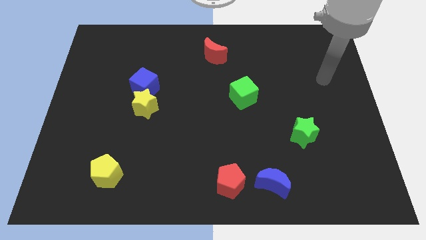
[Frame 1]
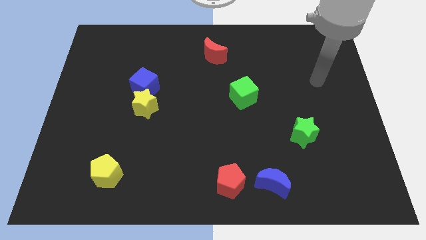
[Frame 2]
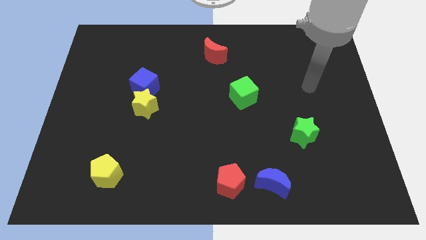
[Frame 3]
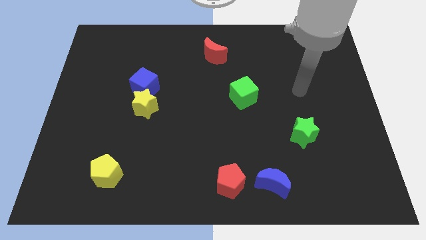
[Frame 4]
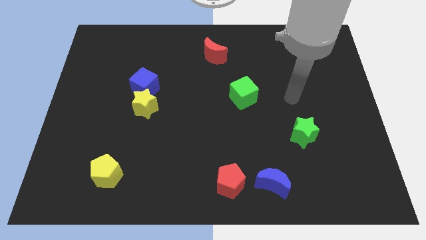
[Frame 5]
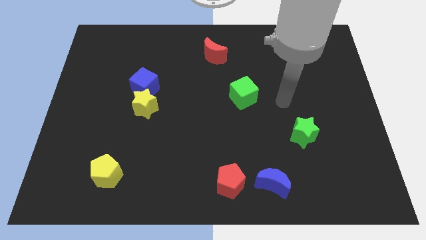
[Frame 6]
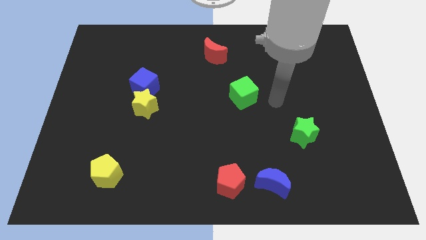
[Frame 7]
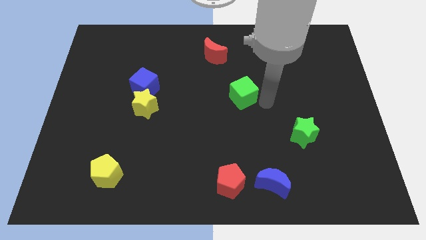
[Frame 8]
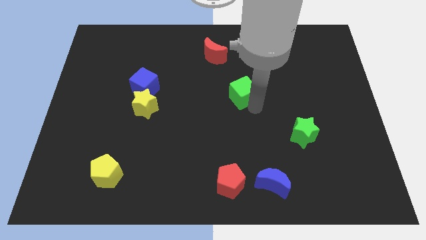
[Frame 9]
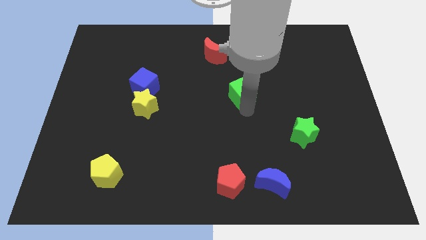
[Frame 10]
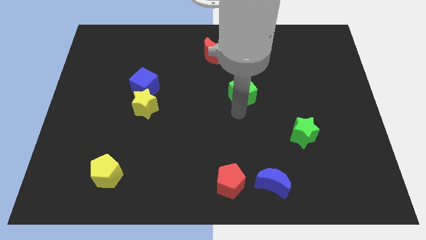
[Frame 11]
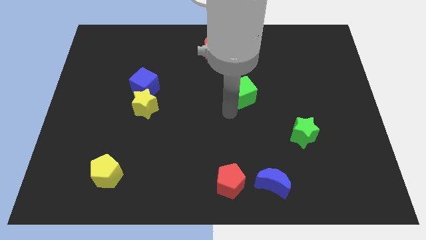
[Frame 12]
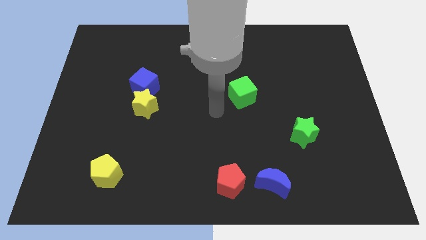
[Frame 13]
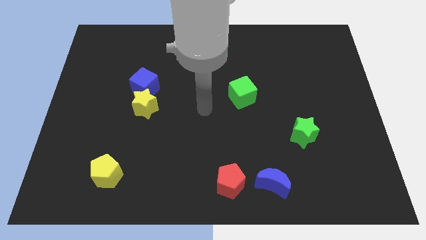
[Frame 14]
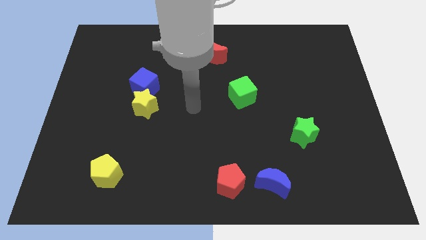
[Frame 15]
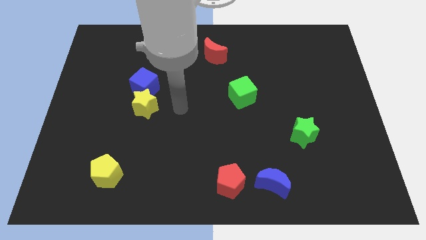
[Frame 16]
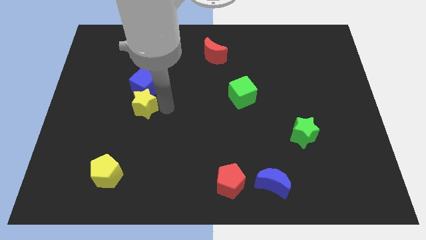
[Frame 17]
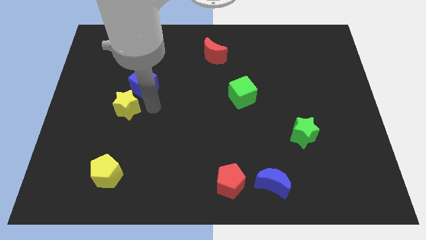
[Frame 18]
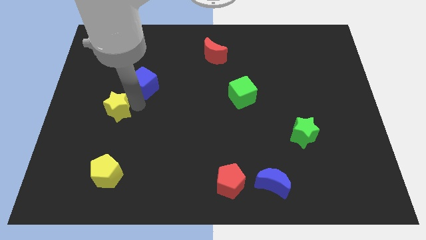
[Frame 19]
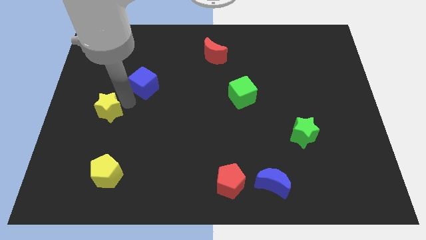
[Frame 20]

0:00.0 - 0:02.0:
move the blue cube away from the yellow star

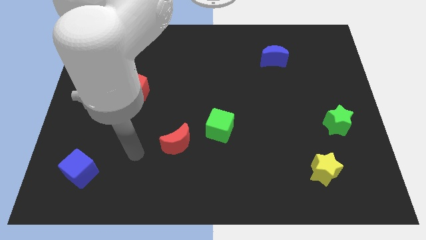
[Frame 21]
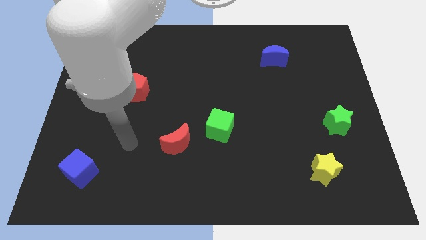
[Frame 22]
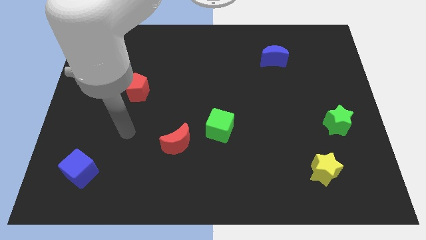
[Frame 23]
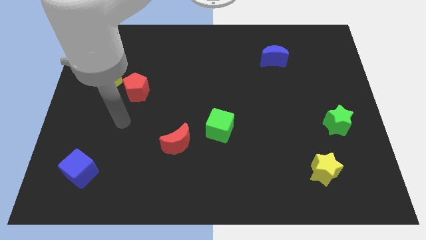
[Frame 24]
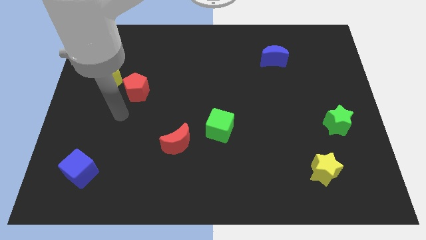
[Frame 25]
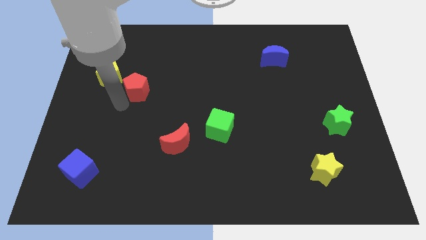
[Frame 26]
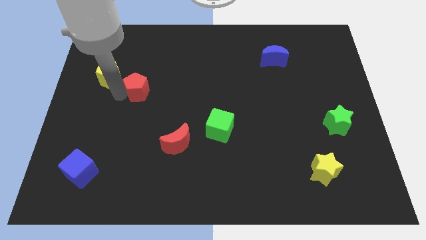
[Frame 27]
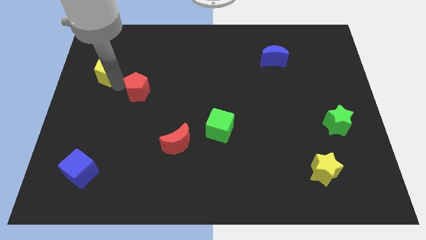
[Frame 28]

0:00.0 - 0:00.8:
separate the red pentagon from the yellow pentagon

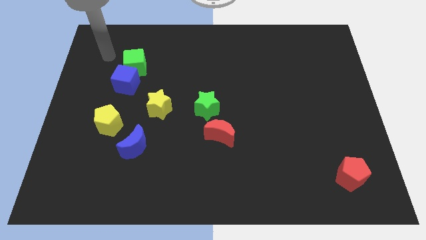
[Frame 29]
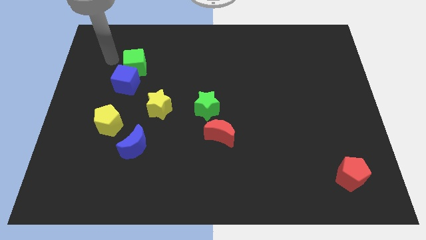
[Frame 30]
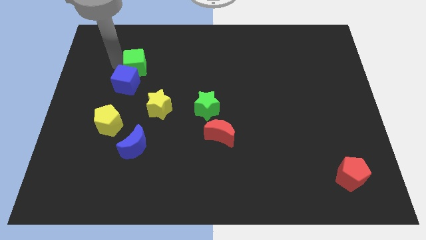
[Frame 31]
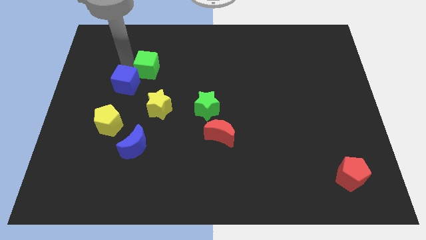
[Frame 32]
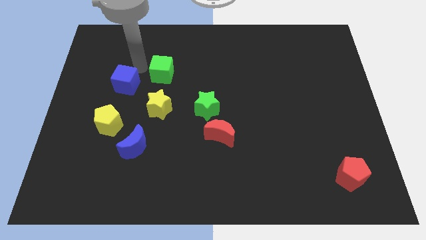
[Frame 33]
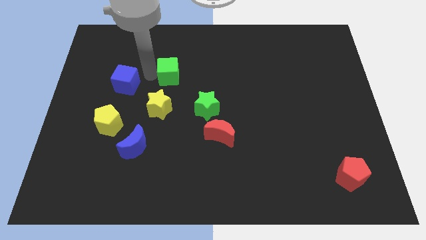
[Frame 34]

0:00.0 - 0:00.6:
pull the blue cube apart from the green cube

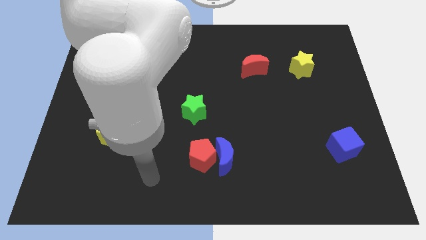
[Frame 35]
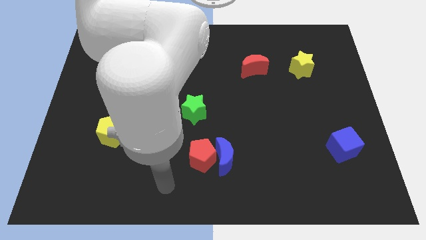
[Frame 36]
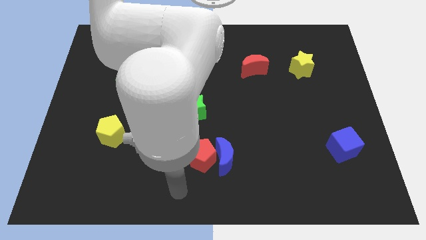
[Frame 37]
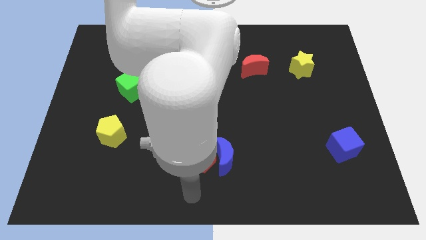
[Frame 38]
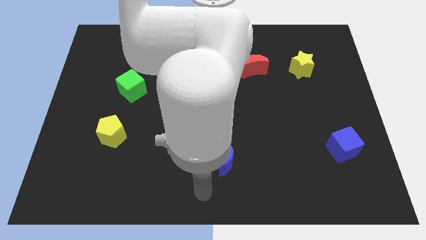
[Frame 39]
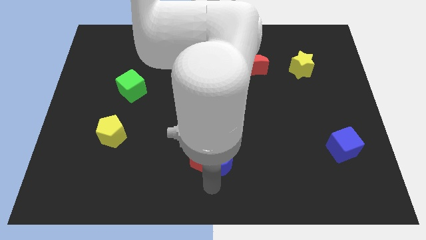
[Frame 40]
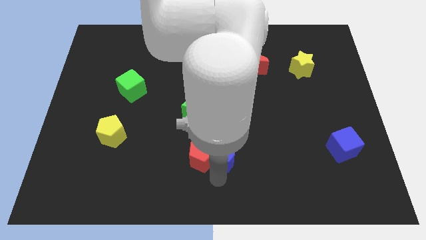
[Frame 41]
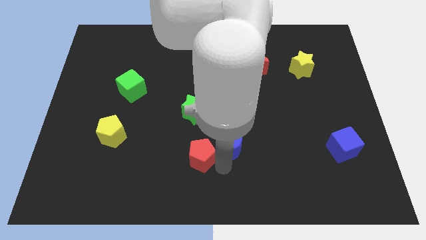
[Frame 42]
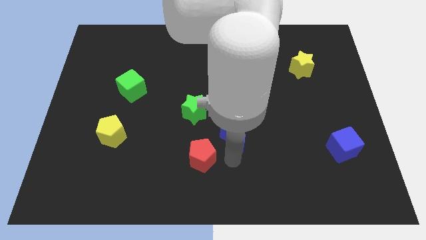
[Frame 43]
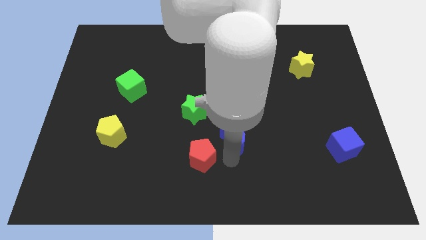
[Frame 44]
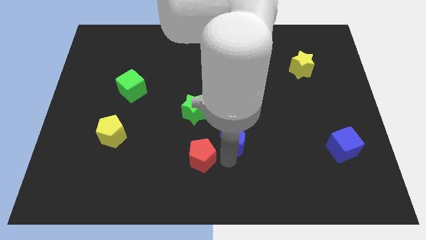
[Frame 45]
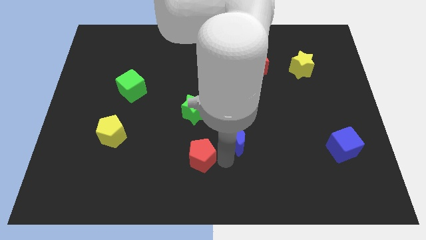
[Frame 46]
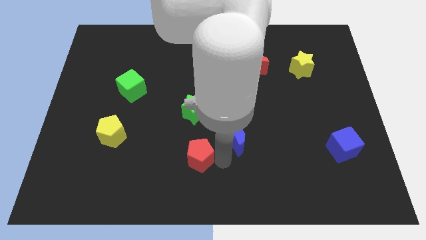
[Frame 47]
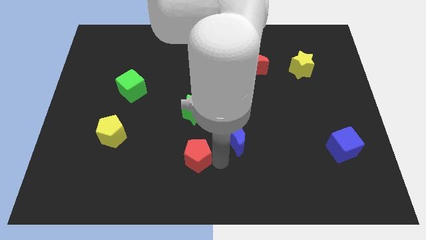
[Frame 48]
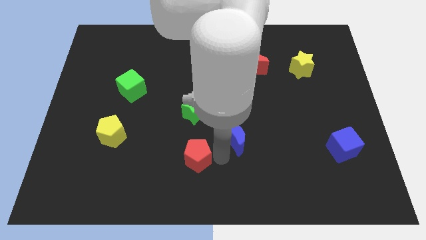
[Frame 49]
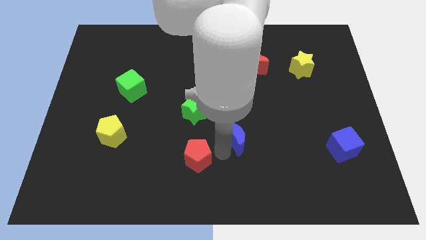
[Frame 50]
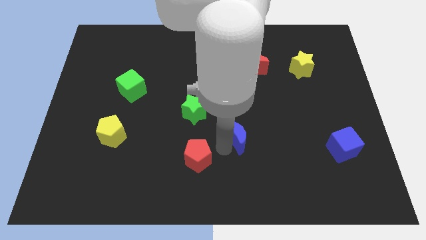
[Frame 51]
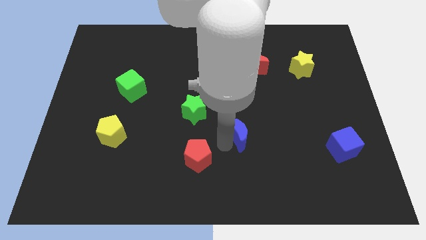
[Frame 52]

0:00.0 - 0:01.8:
pull the red pentagon apart from the blue moon

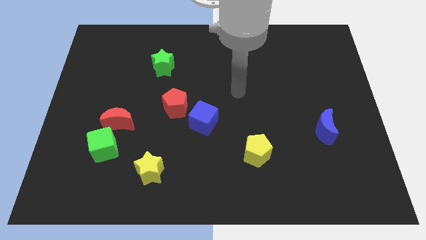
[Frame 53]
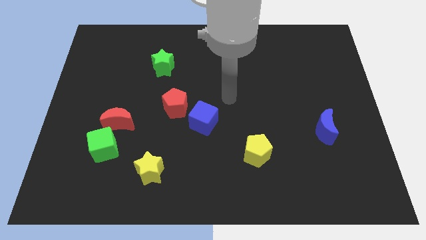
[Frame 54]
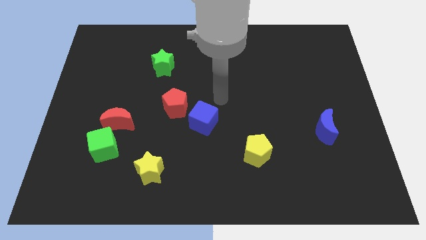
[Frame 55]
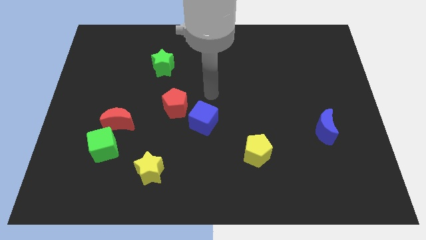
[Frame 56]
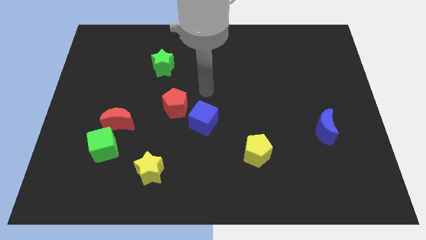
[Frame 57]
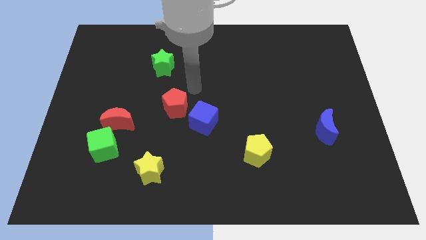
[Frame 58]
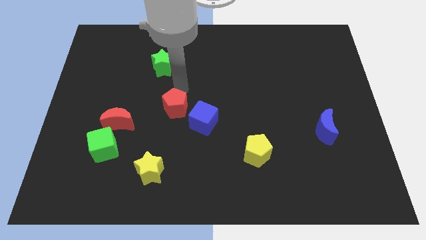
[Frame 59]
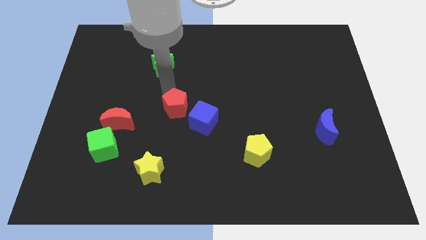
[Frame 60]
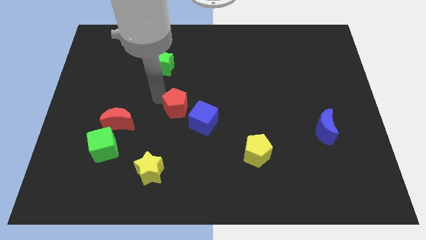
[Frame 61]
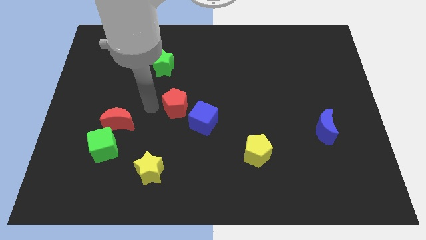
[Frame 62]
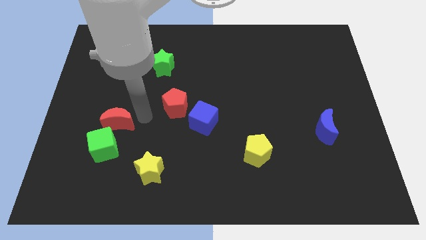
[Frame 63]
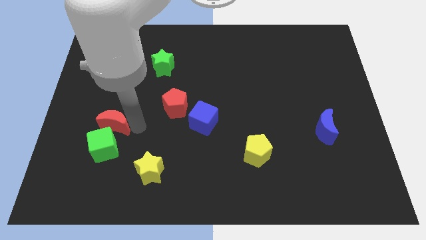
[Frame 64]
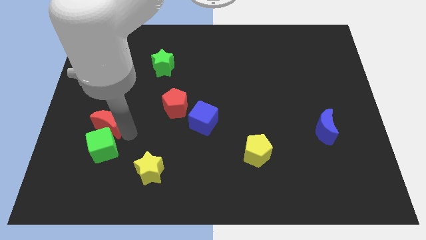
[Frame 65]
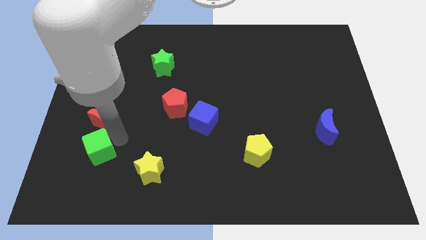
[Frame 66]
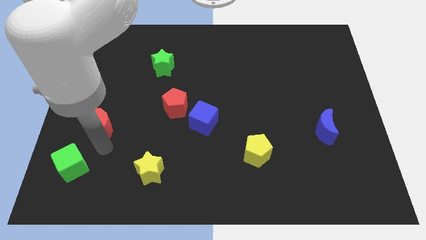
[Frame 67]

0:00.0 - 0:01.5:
move the red moon away from the green cube

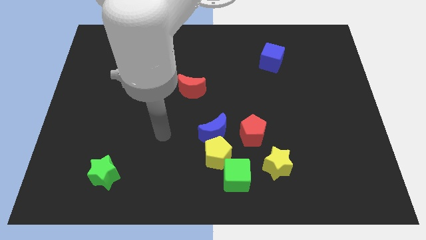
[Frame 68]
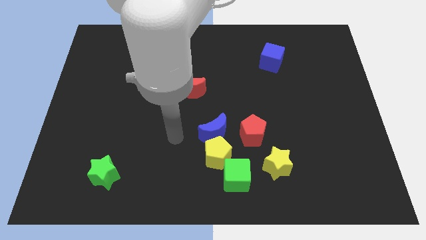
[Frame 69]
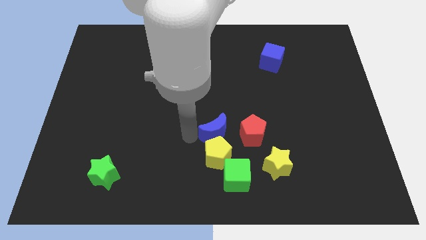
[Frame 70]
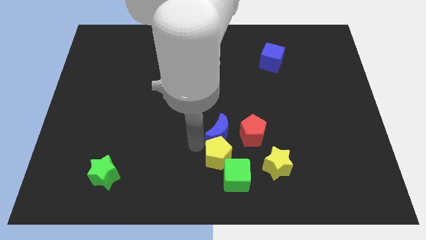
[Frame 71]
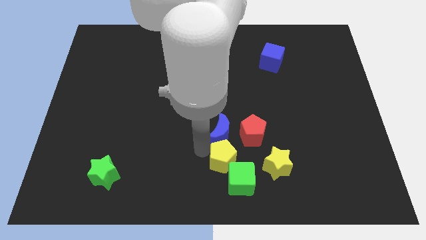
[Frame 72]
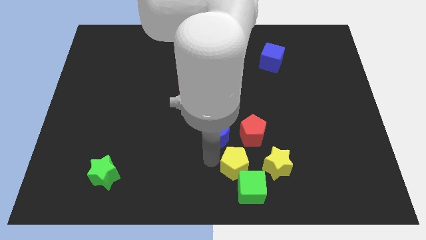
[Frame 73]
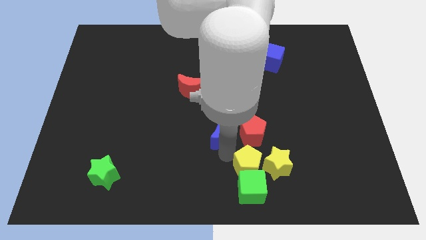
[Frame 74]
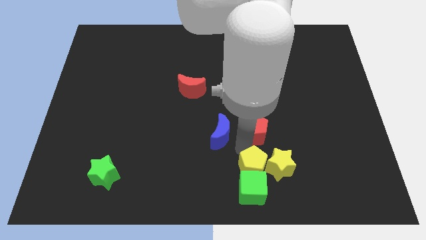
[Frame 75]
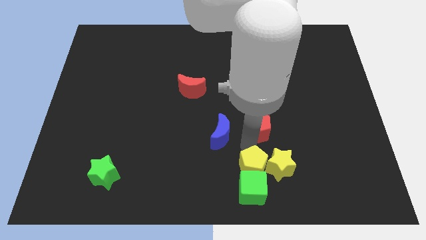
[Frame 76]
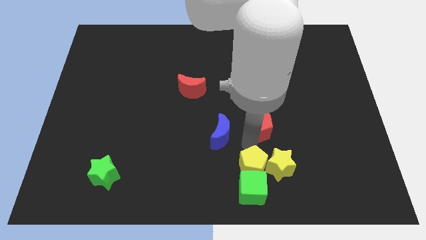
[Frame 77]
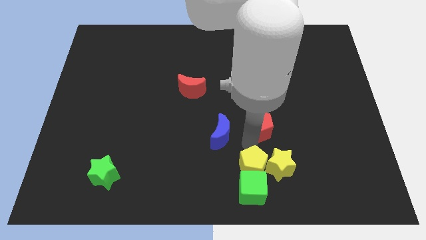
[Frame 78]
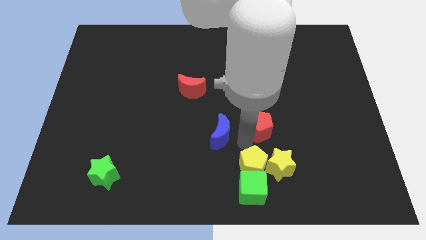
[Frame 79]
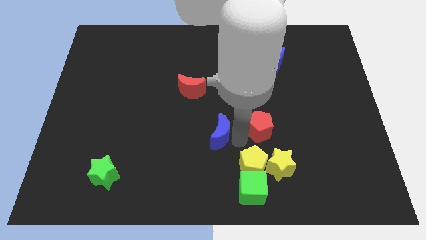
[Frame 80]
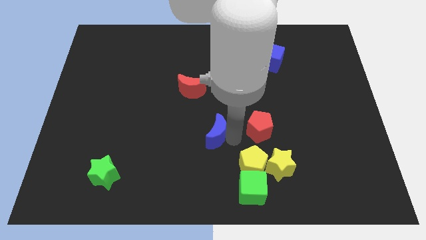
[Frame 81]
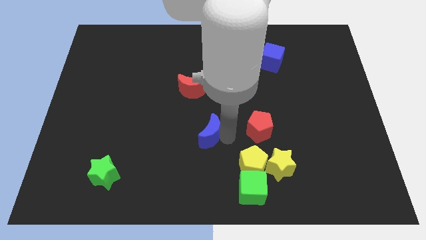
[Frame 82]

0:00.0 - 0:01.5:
move the blue moon away from the yellow pentagon and red pentagon

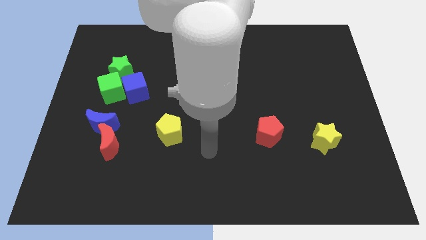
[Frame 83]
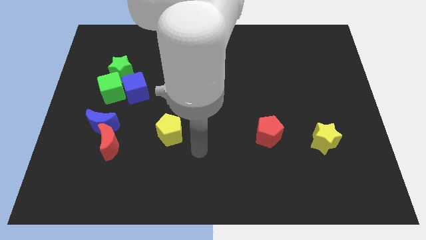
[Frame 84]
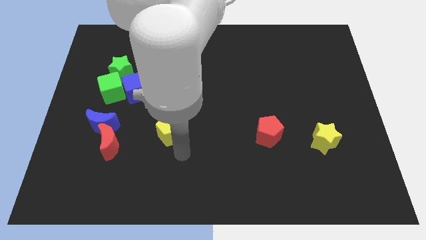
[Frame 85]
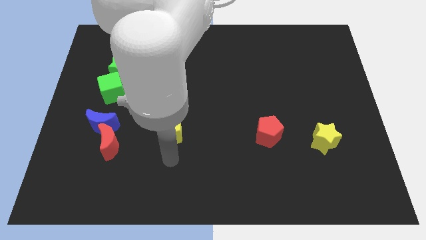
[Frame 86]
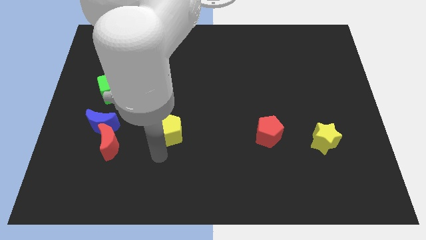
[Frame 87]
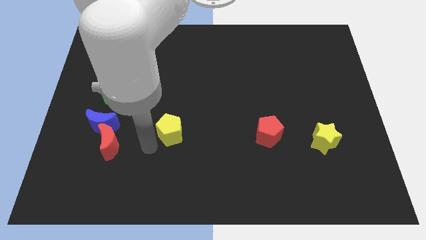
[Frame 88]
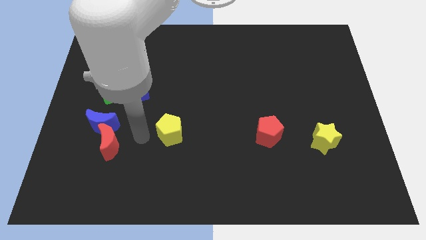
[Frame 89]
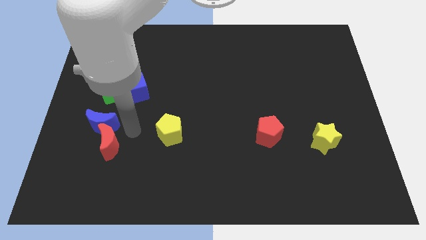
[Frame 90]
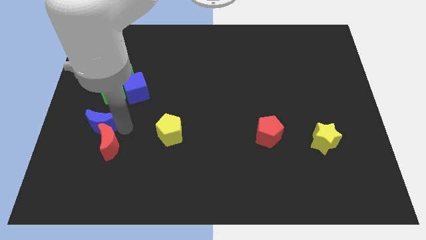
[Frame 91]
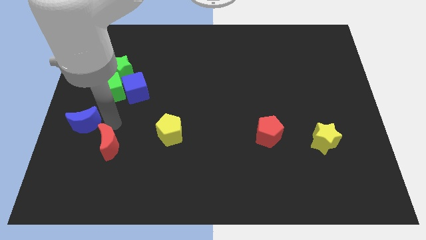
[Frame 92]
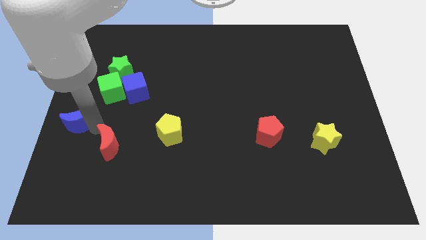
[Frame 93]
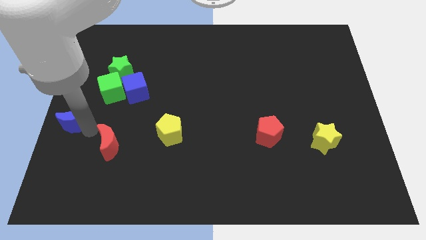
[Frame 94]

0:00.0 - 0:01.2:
pull the red moon apart from the blue moon
